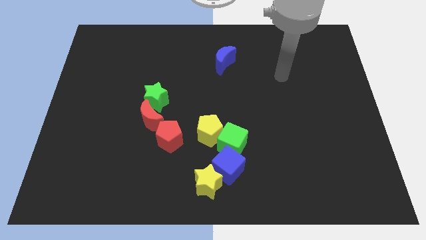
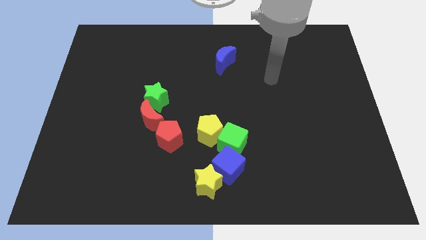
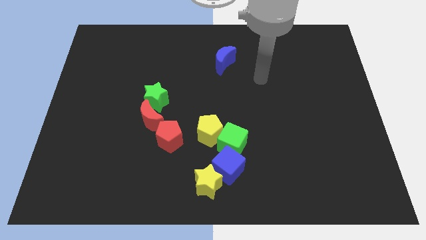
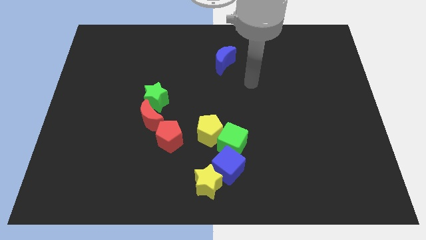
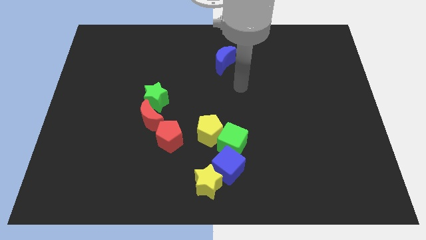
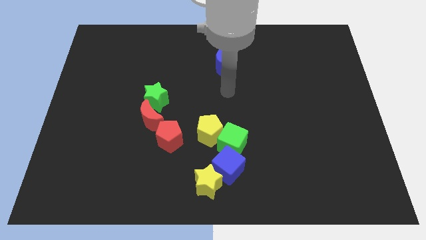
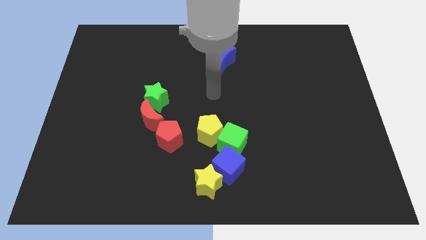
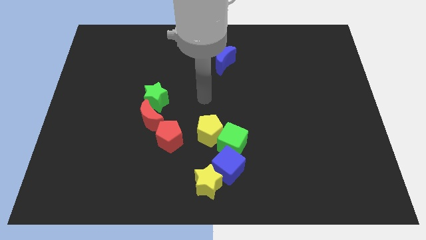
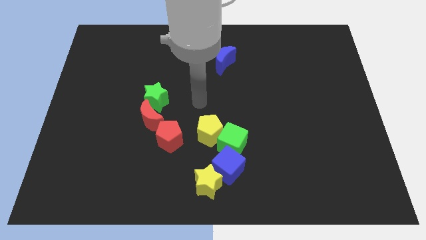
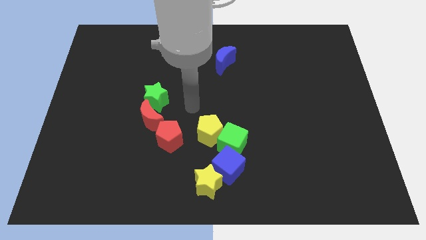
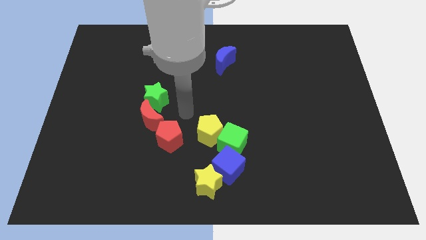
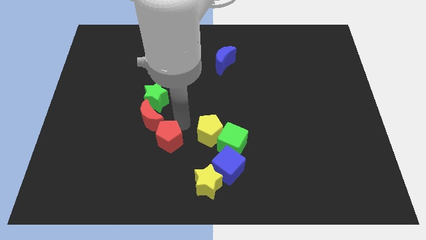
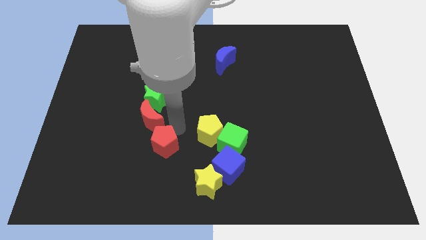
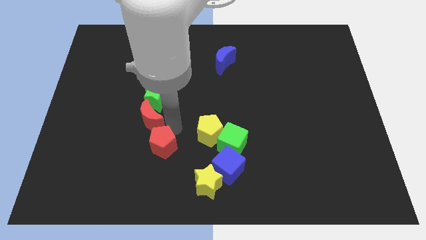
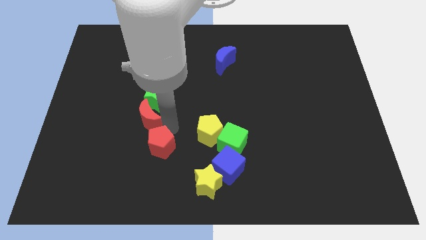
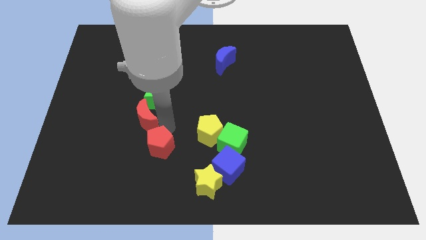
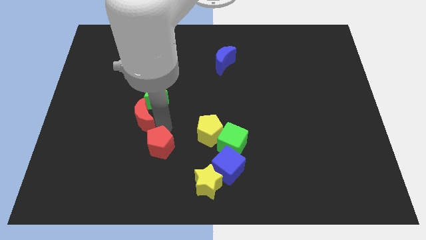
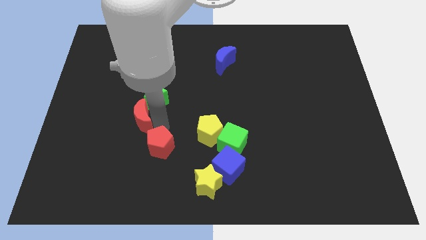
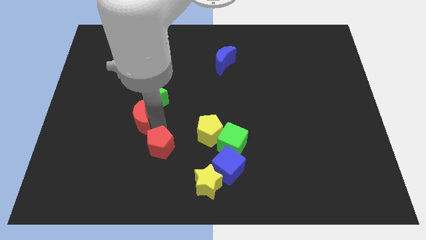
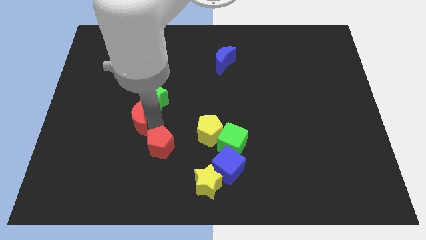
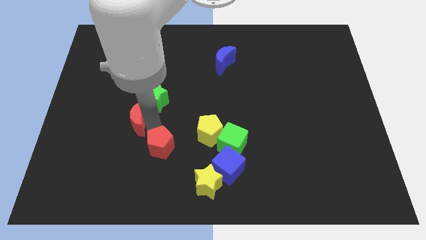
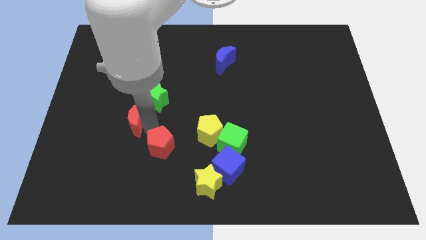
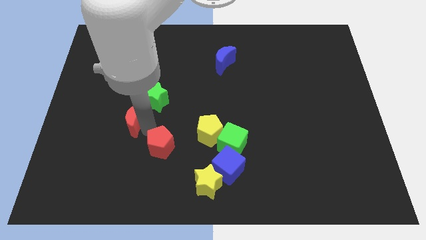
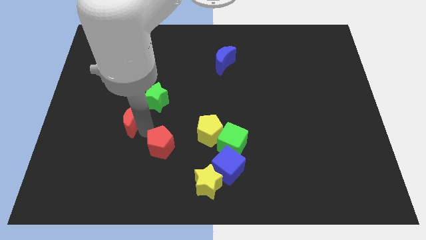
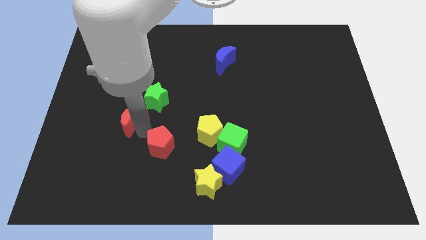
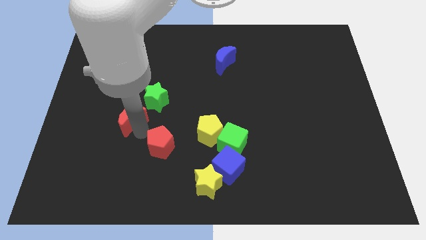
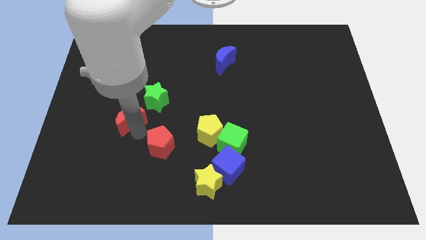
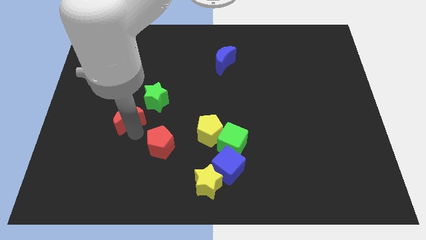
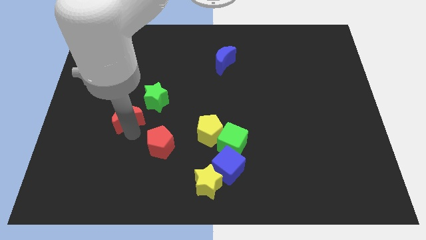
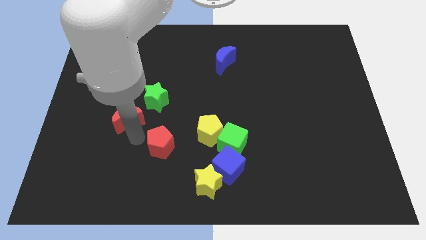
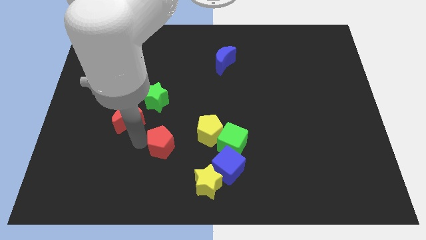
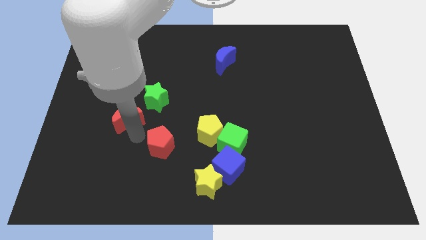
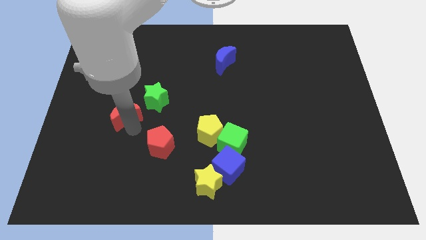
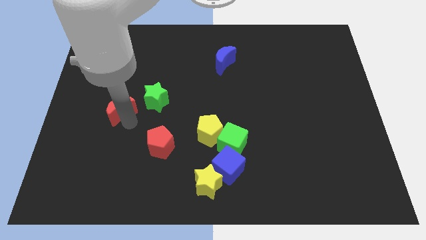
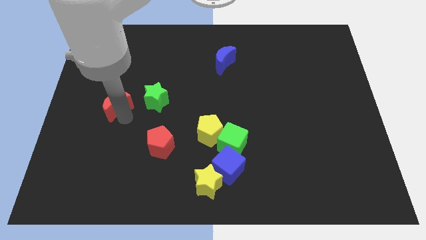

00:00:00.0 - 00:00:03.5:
slightly move the red moon up and to the left diagonally

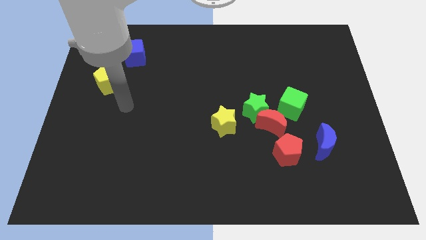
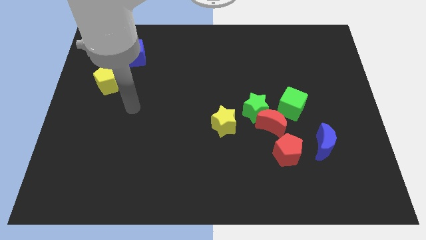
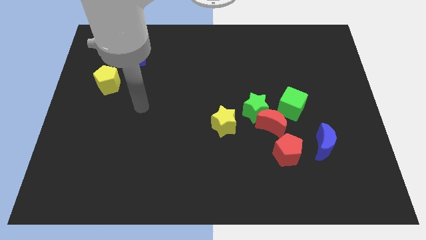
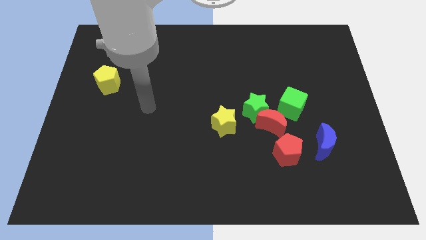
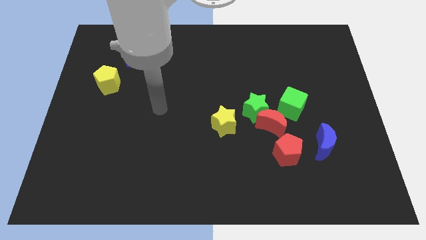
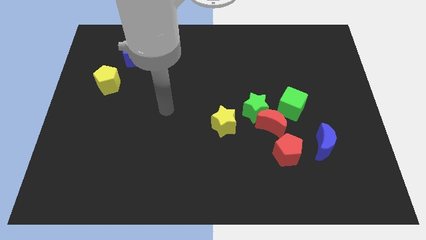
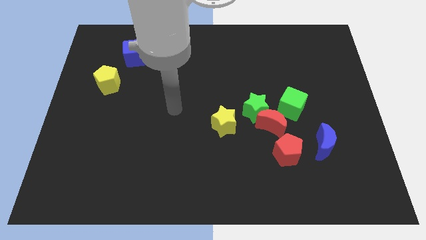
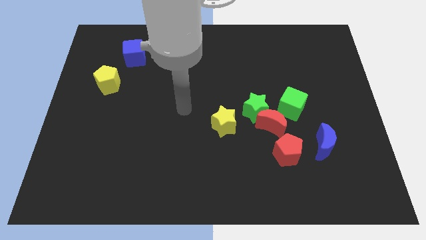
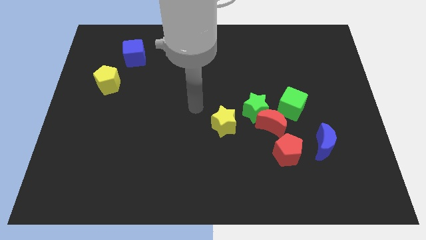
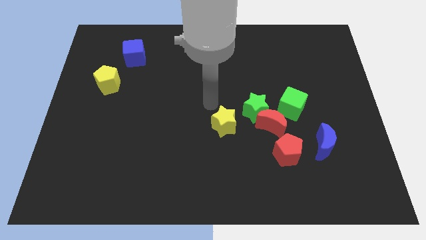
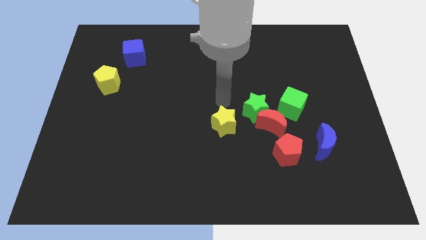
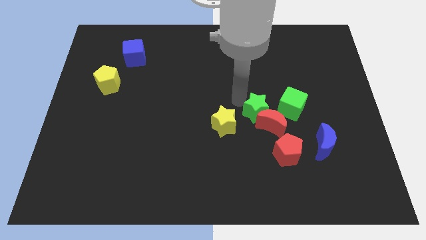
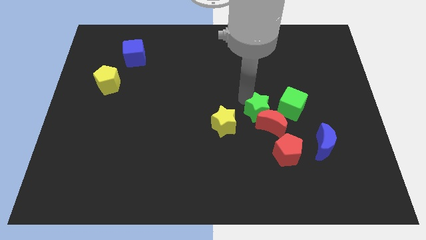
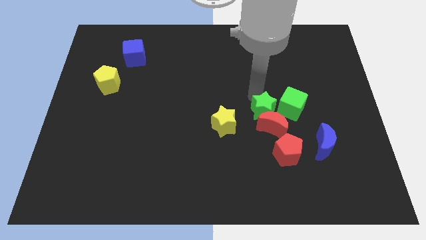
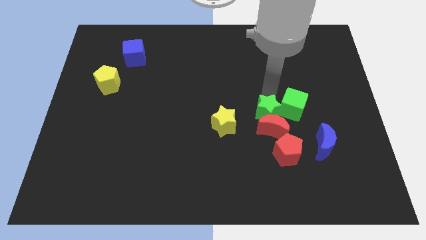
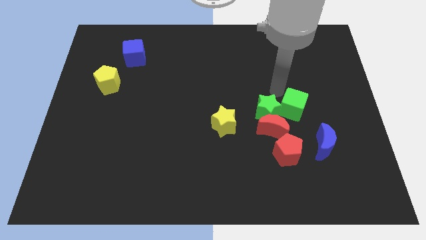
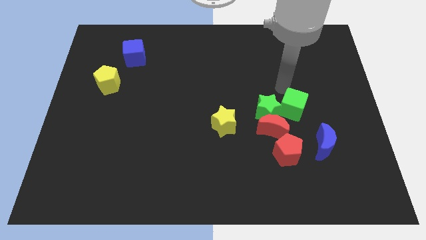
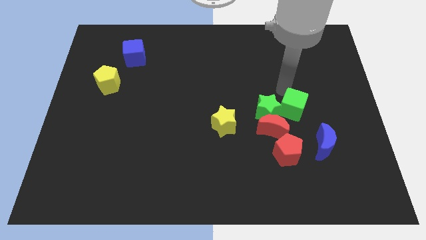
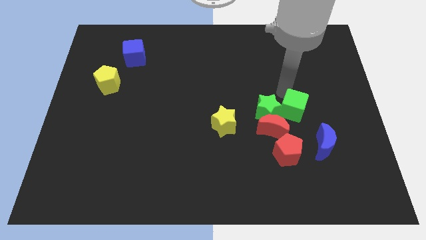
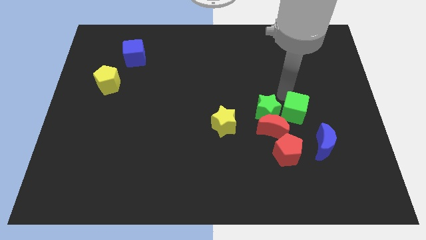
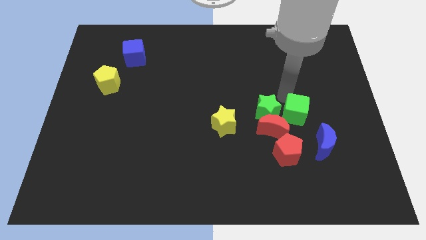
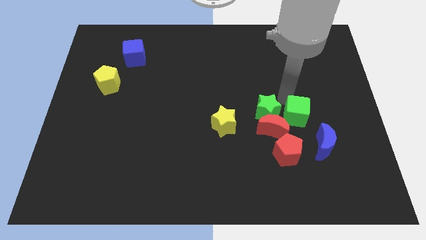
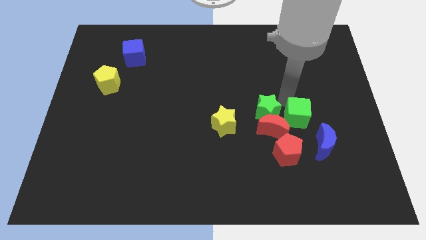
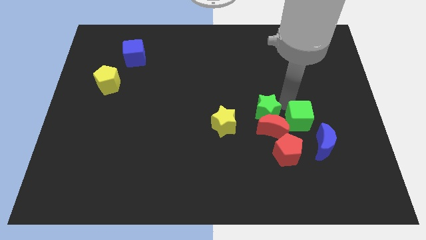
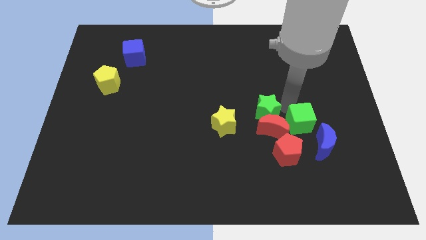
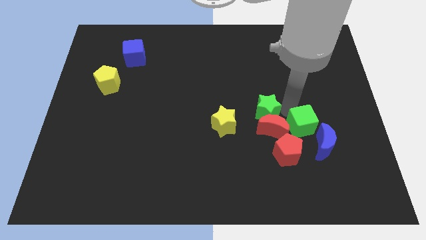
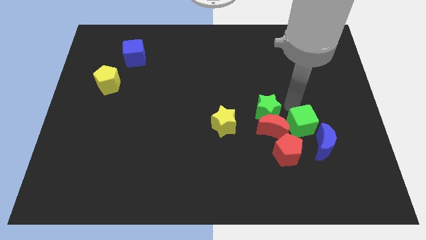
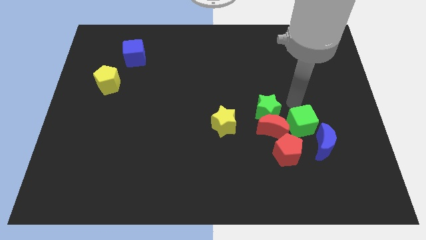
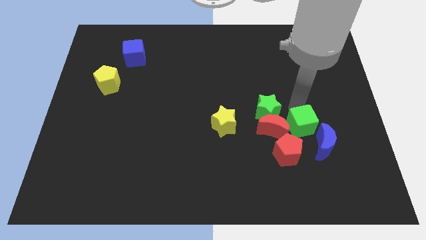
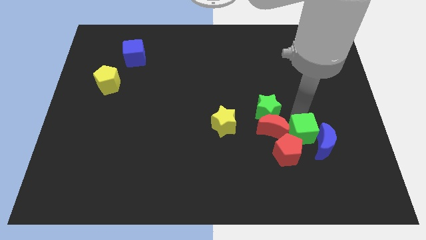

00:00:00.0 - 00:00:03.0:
push the green cube somewhat downwards

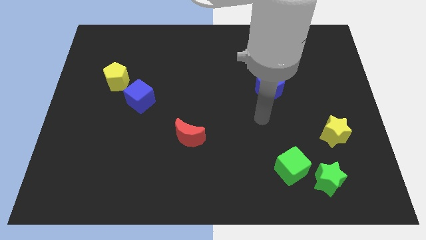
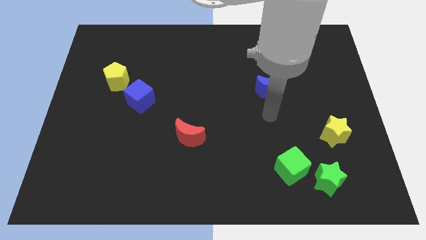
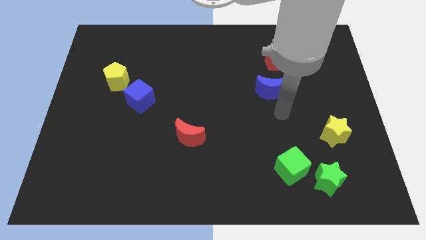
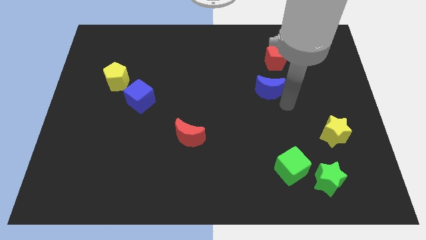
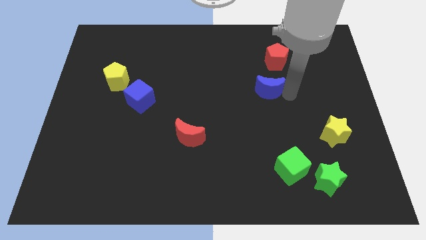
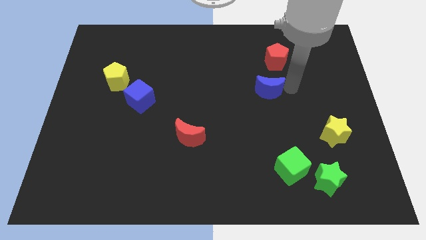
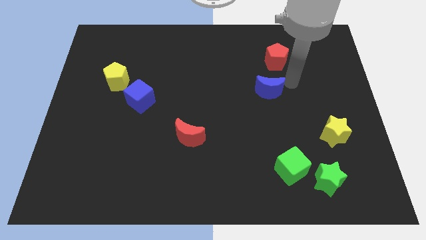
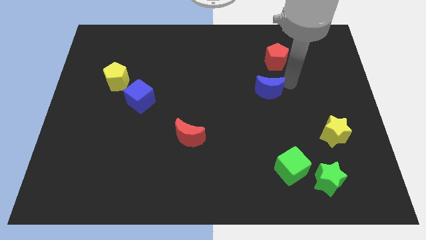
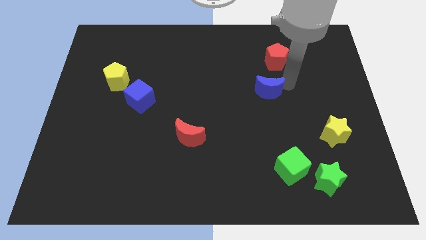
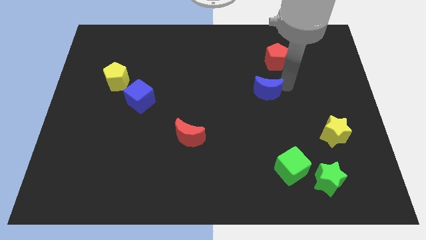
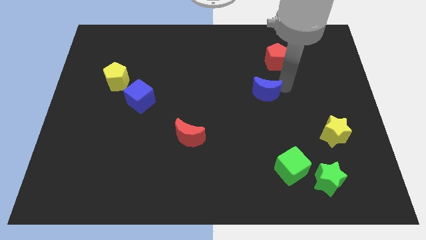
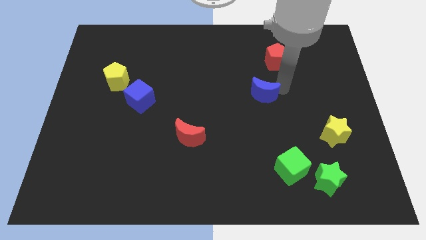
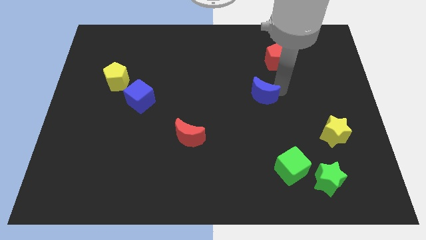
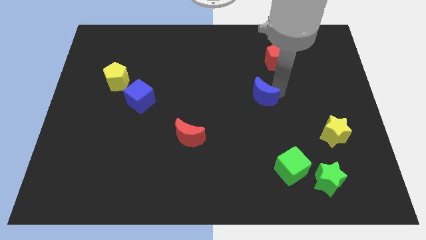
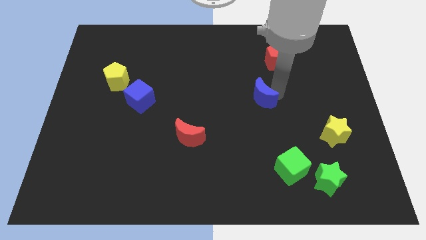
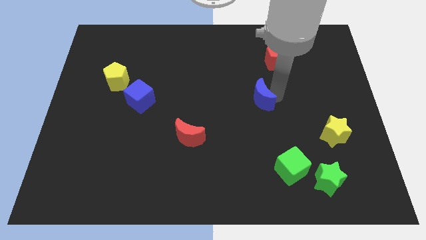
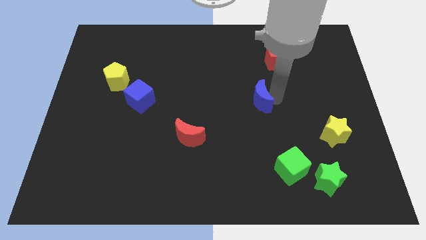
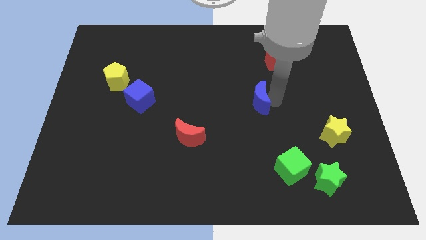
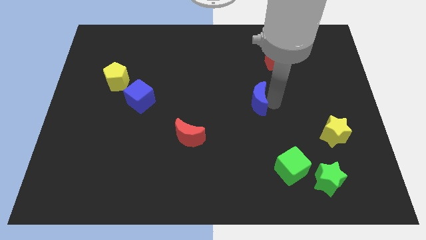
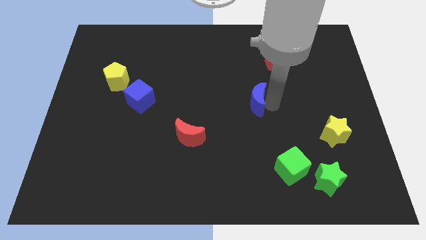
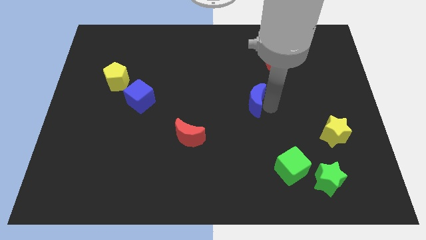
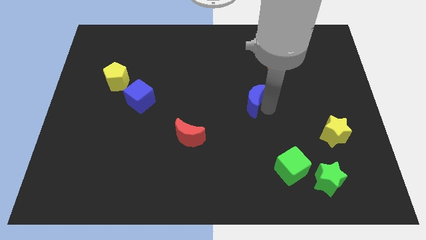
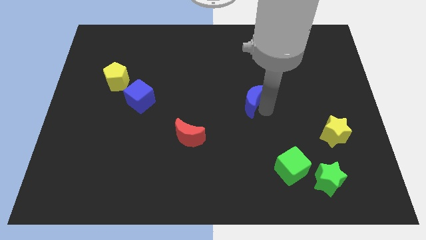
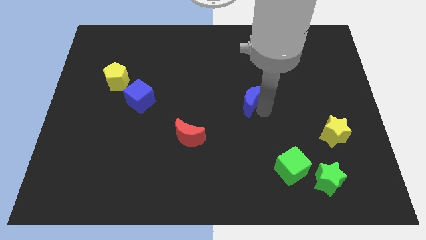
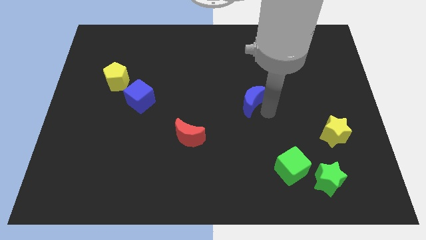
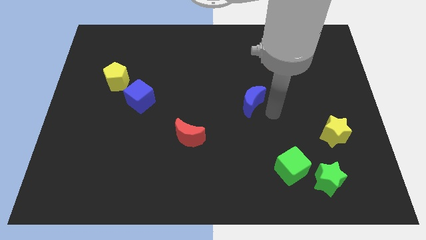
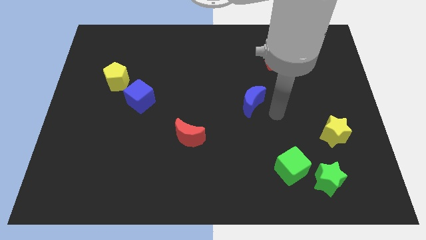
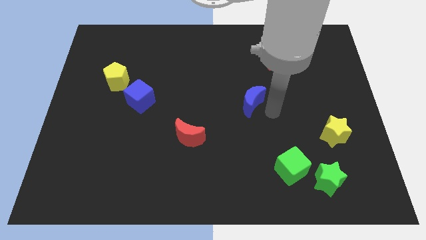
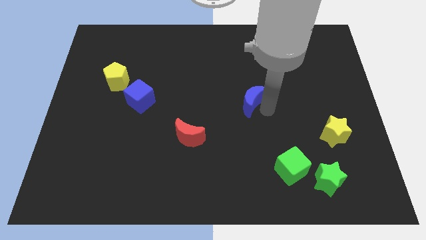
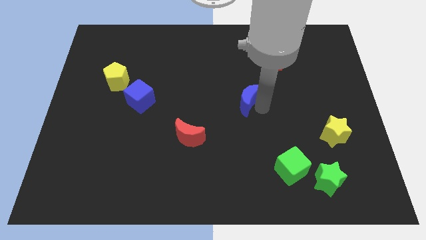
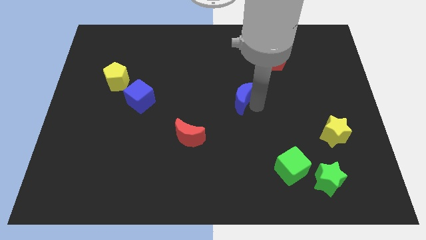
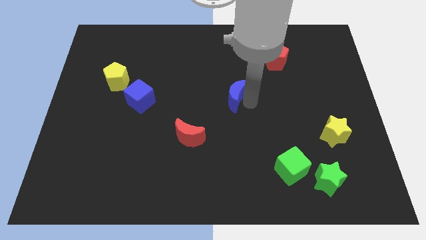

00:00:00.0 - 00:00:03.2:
slightly move the blue moon to the left
